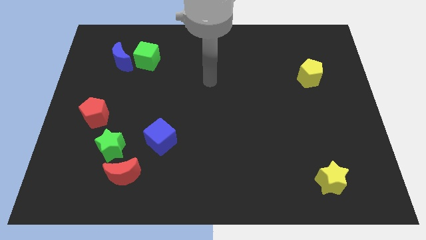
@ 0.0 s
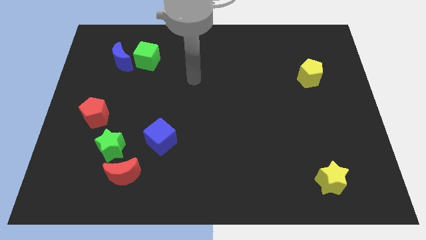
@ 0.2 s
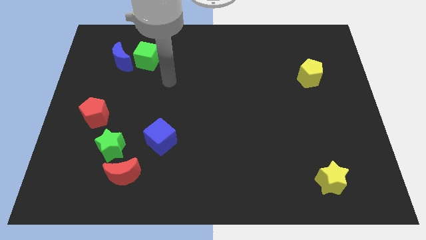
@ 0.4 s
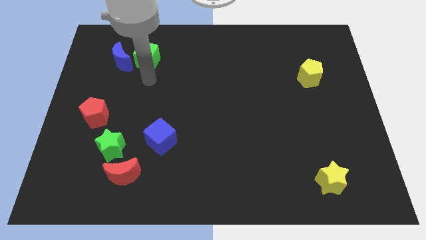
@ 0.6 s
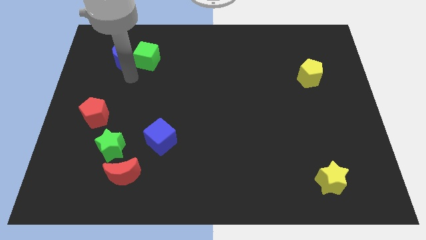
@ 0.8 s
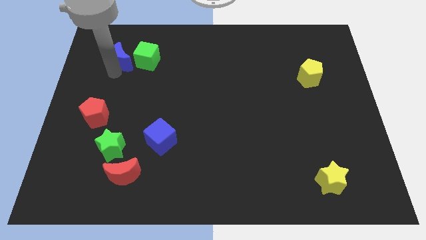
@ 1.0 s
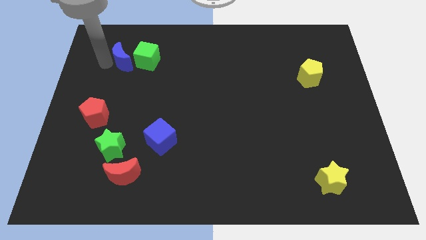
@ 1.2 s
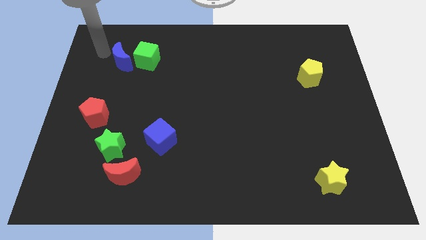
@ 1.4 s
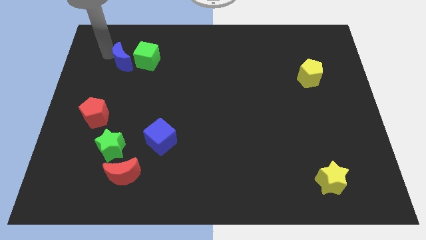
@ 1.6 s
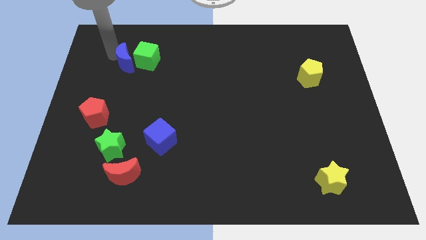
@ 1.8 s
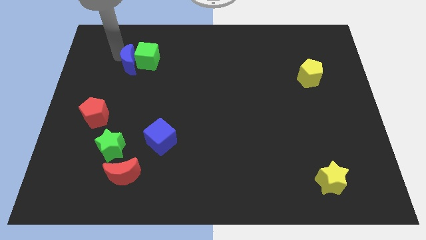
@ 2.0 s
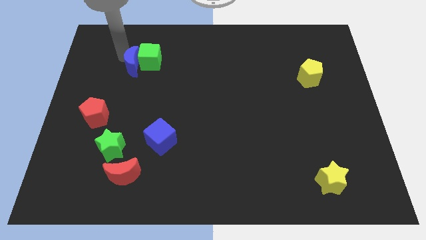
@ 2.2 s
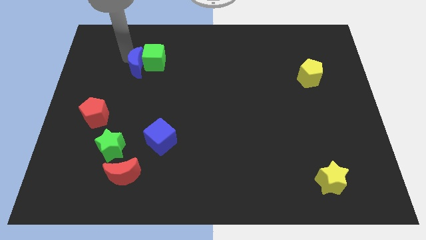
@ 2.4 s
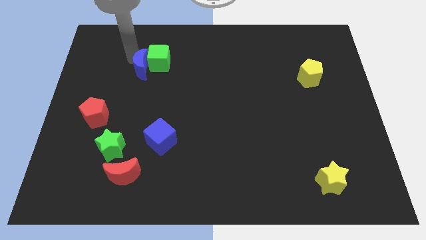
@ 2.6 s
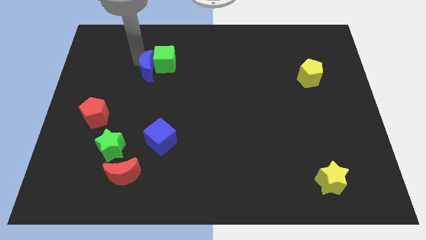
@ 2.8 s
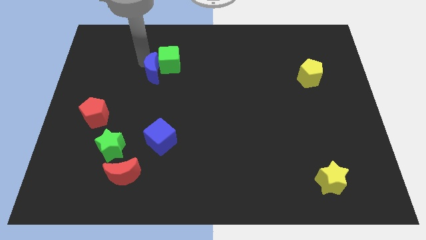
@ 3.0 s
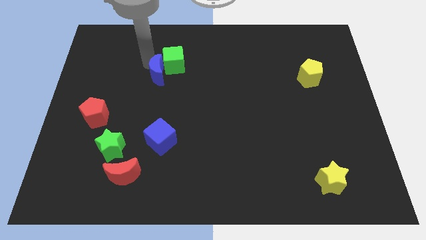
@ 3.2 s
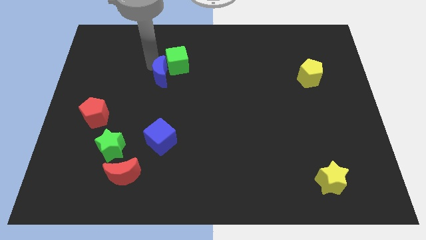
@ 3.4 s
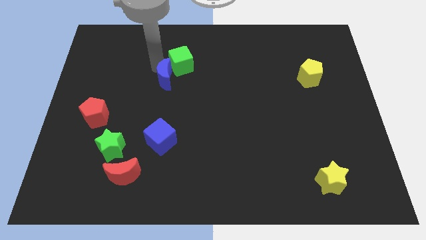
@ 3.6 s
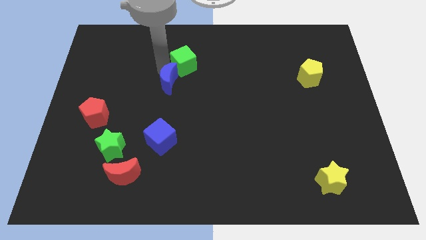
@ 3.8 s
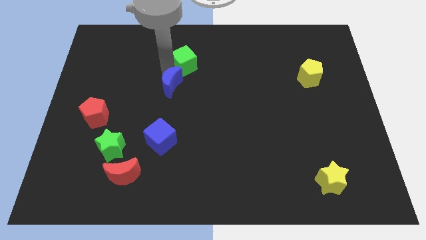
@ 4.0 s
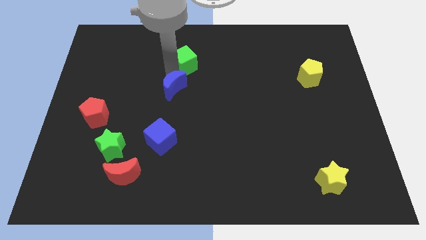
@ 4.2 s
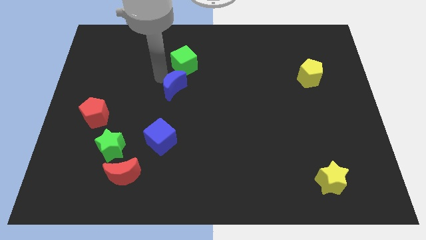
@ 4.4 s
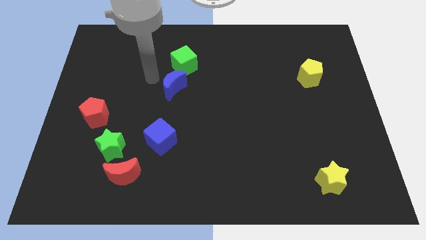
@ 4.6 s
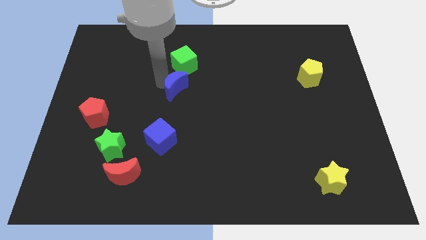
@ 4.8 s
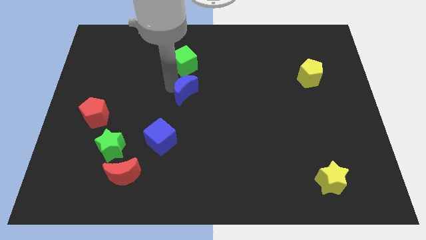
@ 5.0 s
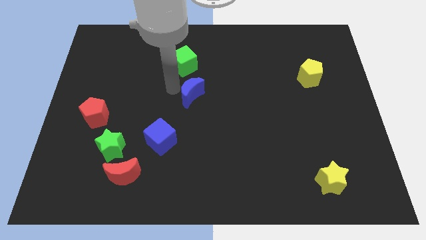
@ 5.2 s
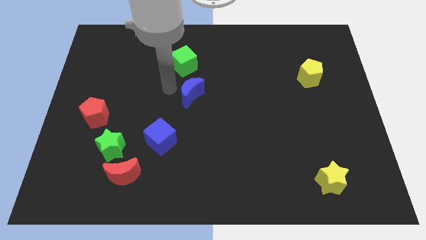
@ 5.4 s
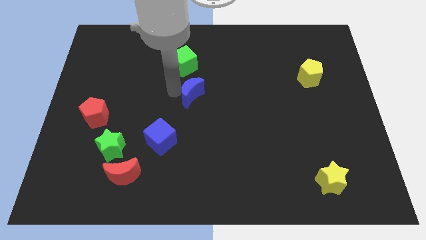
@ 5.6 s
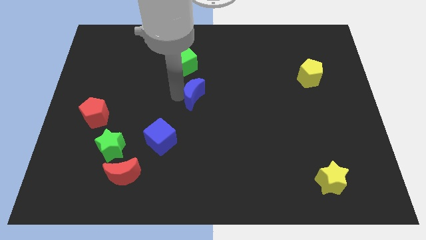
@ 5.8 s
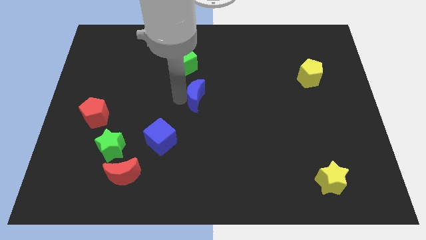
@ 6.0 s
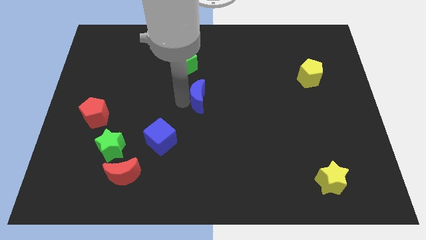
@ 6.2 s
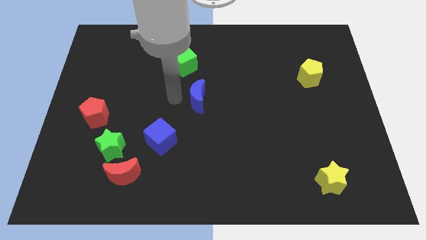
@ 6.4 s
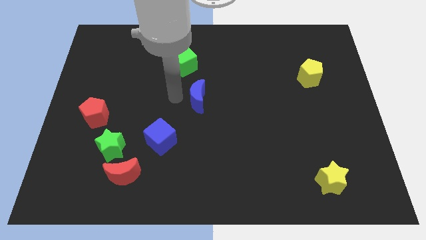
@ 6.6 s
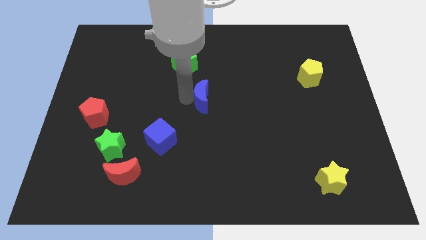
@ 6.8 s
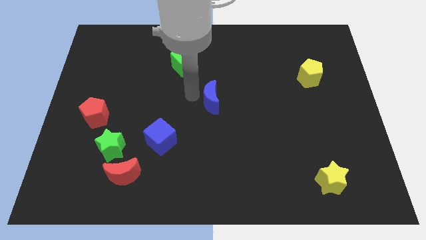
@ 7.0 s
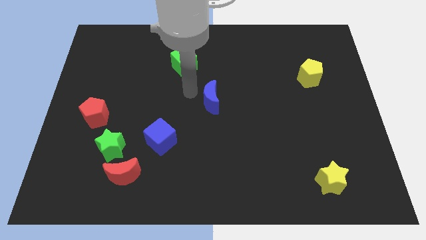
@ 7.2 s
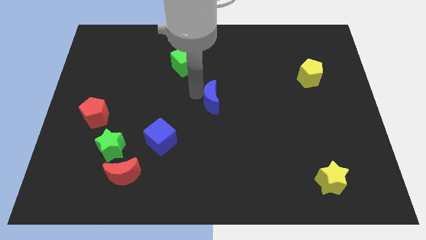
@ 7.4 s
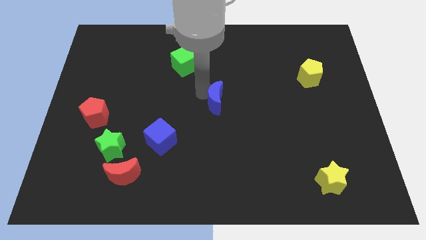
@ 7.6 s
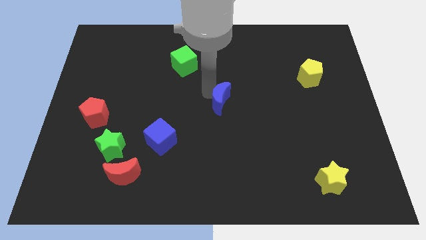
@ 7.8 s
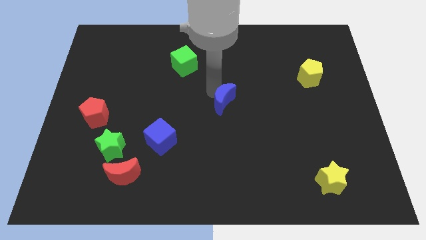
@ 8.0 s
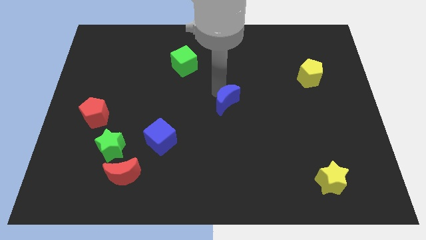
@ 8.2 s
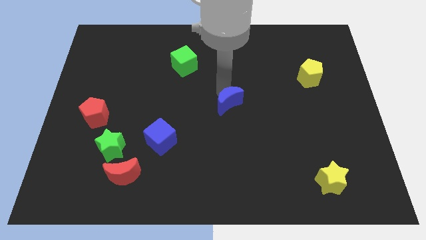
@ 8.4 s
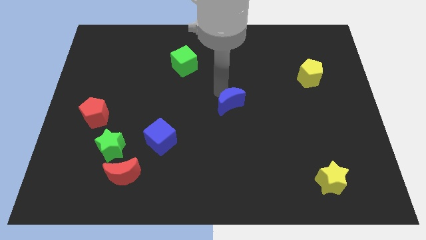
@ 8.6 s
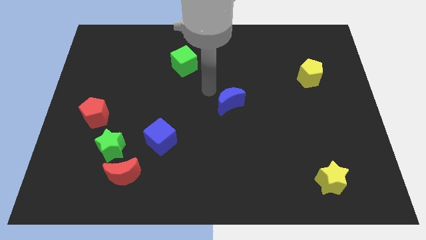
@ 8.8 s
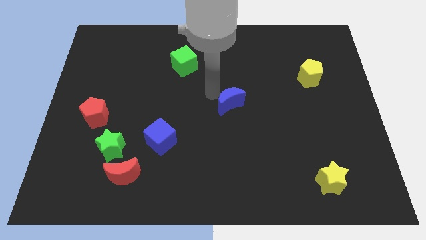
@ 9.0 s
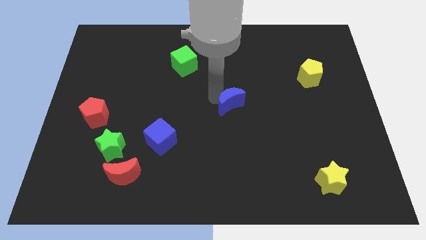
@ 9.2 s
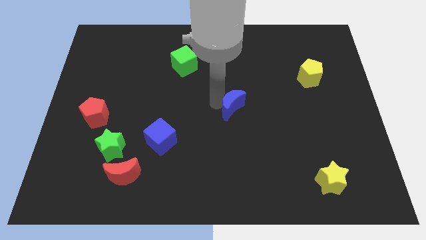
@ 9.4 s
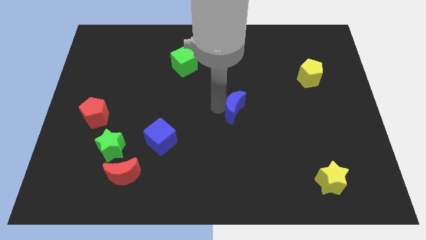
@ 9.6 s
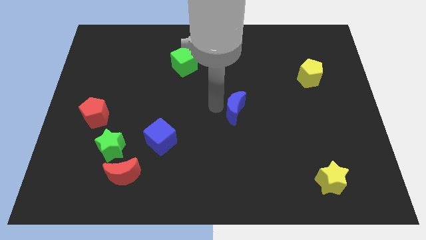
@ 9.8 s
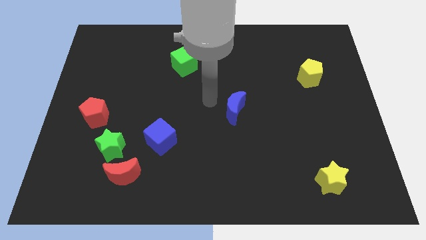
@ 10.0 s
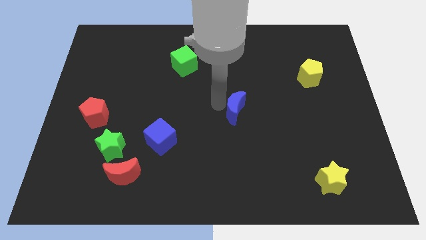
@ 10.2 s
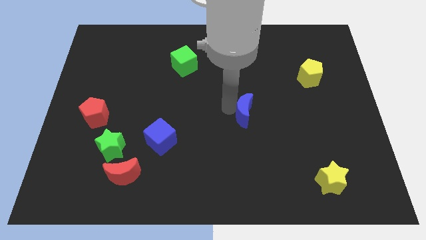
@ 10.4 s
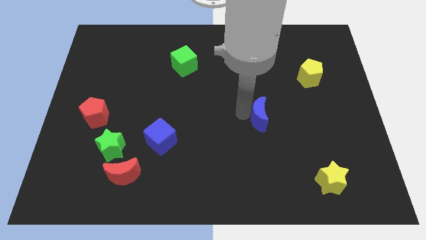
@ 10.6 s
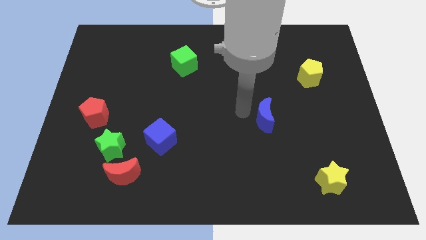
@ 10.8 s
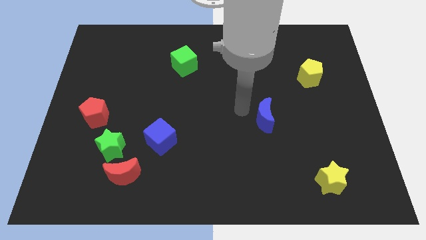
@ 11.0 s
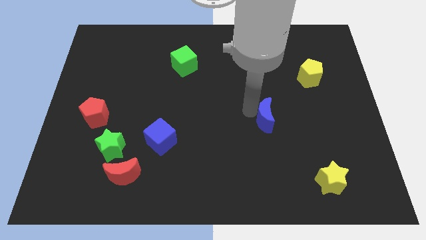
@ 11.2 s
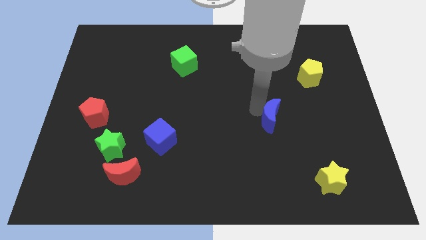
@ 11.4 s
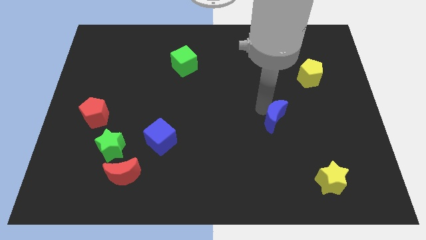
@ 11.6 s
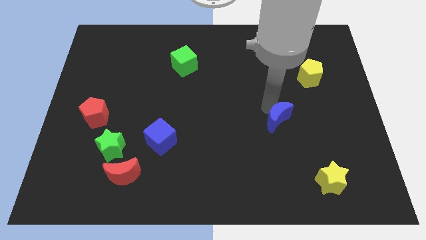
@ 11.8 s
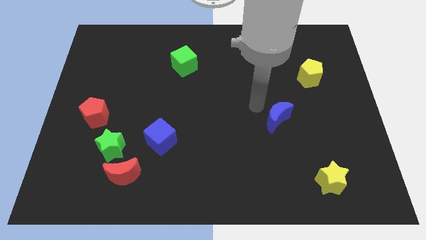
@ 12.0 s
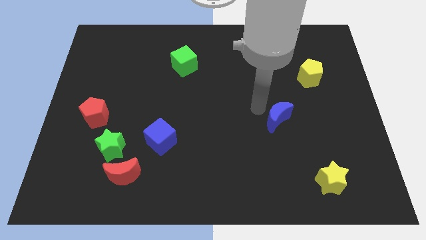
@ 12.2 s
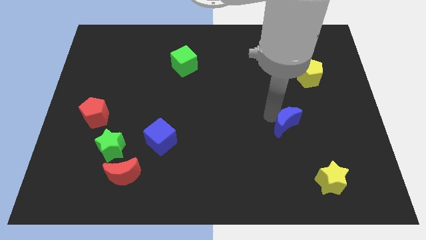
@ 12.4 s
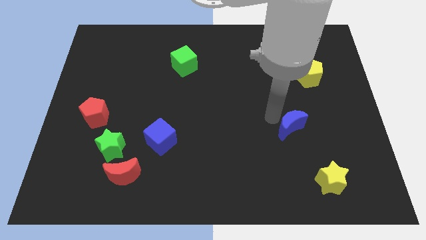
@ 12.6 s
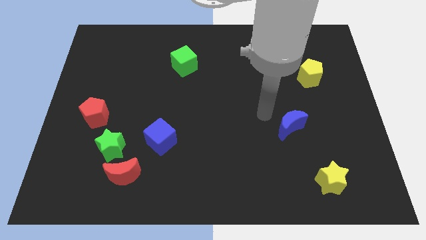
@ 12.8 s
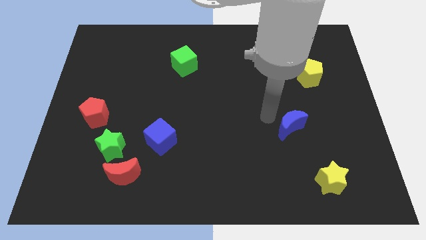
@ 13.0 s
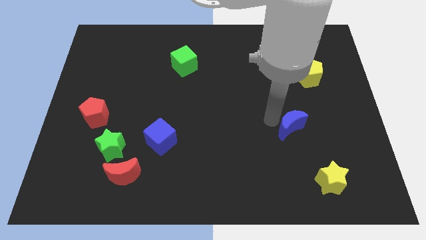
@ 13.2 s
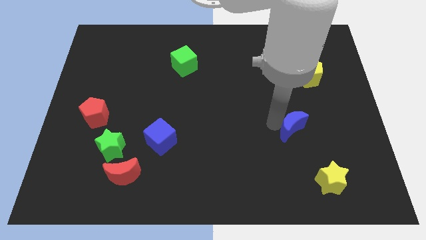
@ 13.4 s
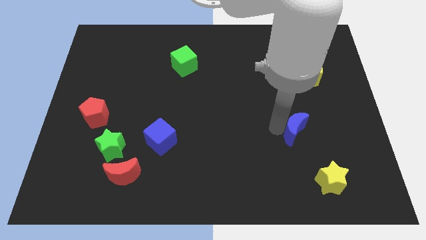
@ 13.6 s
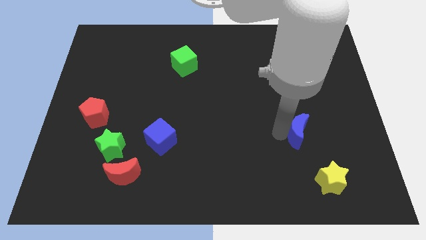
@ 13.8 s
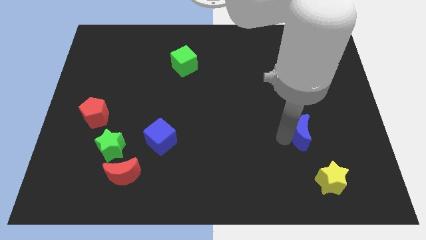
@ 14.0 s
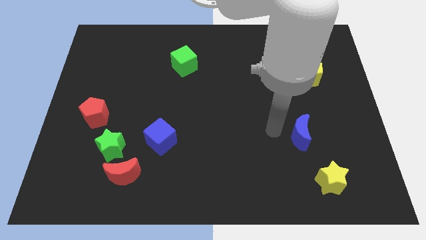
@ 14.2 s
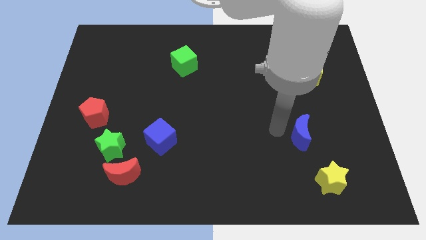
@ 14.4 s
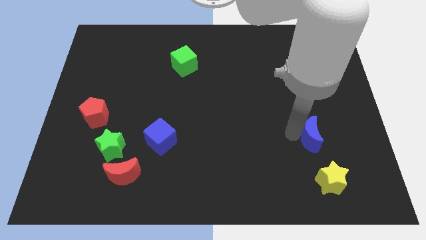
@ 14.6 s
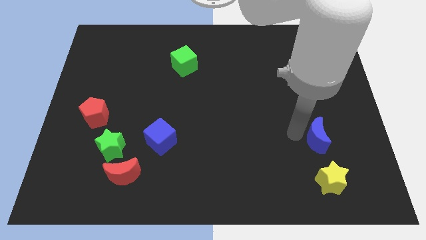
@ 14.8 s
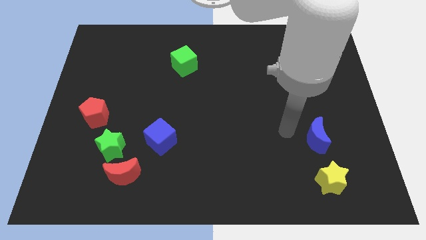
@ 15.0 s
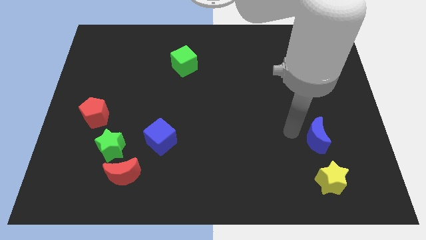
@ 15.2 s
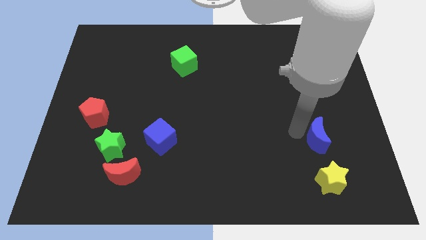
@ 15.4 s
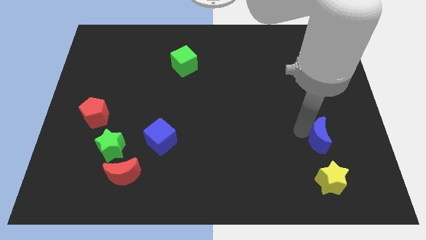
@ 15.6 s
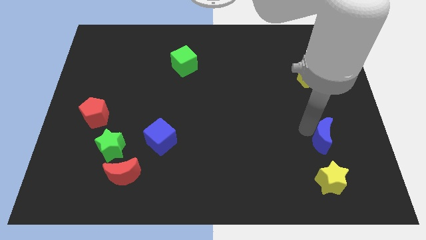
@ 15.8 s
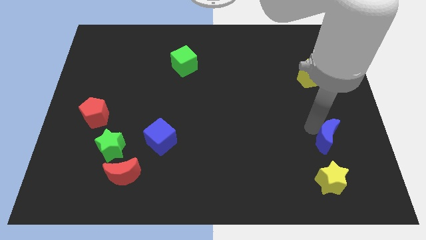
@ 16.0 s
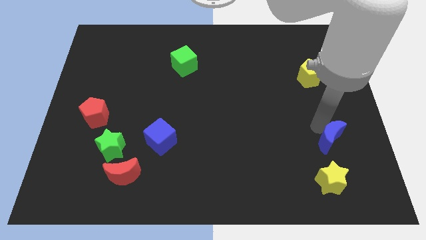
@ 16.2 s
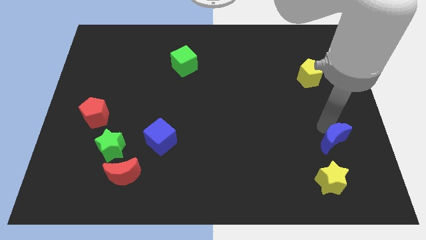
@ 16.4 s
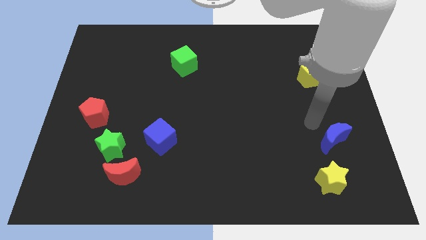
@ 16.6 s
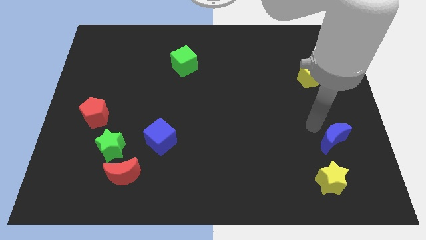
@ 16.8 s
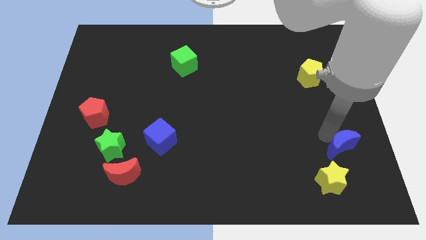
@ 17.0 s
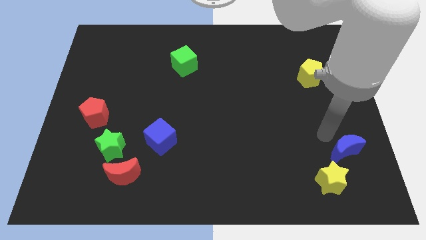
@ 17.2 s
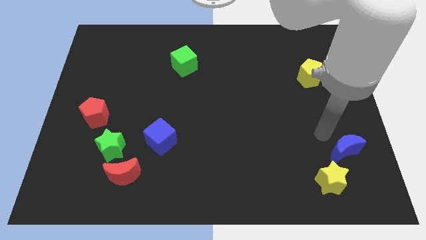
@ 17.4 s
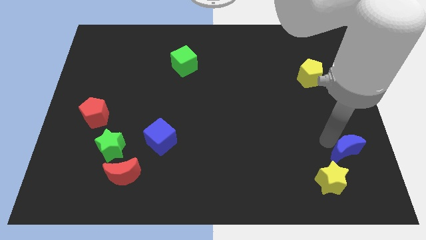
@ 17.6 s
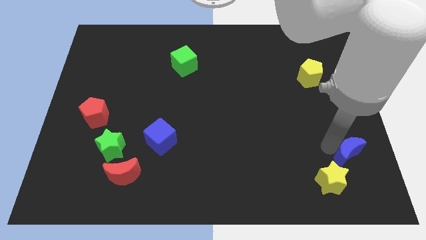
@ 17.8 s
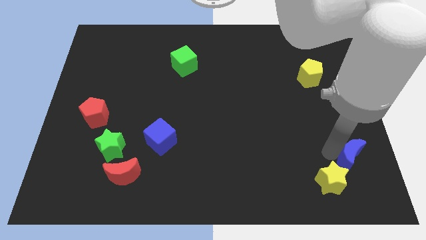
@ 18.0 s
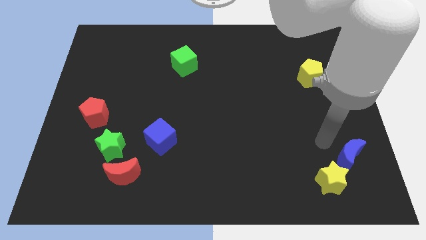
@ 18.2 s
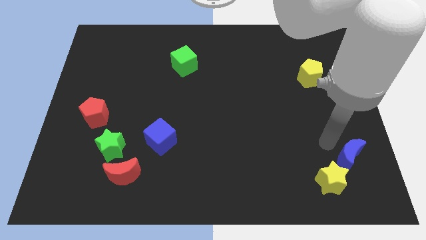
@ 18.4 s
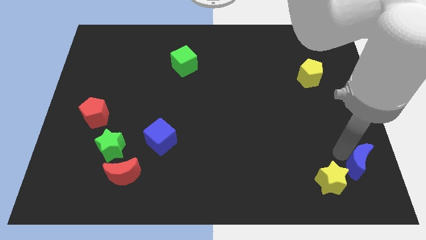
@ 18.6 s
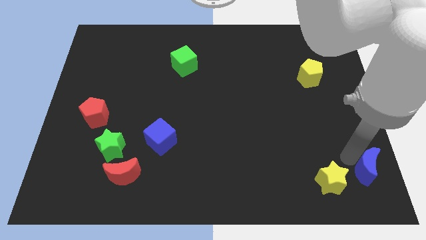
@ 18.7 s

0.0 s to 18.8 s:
put the blue moon to the bottom right
